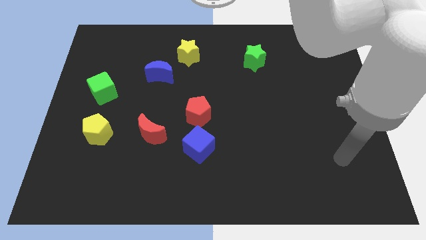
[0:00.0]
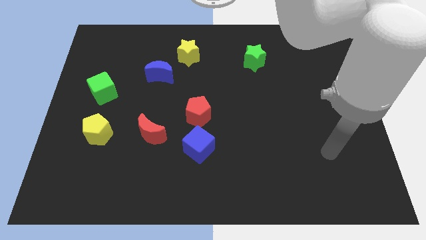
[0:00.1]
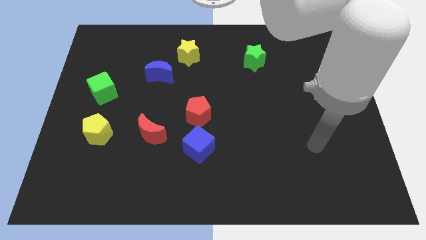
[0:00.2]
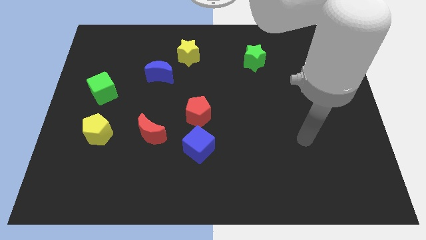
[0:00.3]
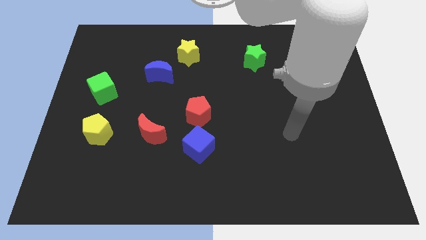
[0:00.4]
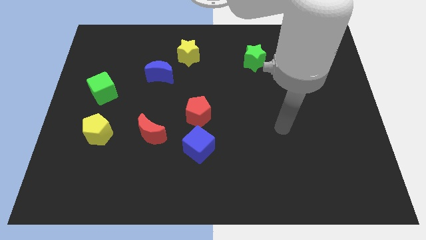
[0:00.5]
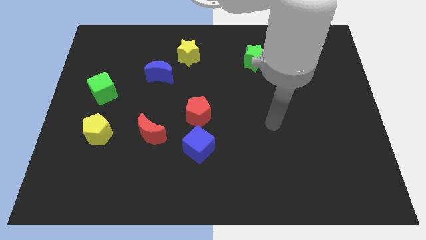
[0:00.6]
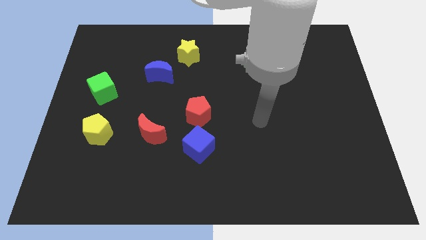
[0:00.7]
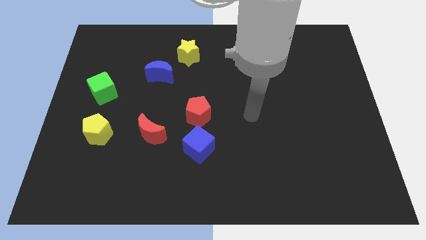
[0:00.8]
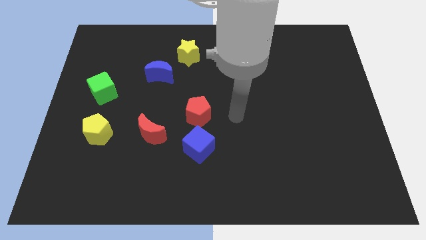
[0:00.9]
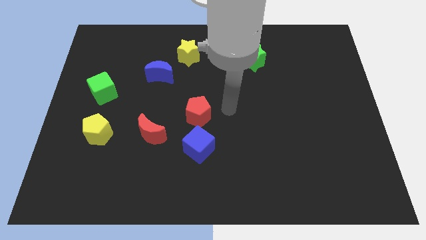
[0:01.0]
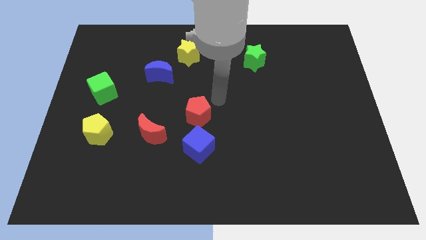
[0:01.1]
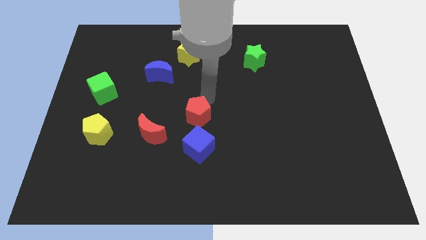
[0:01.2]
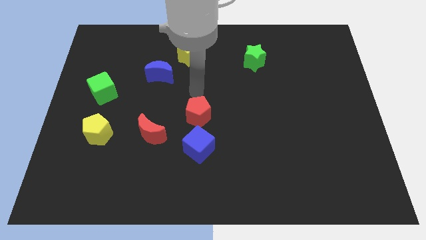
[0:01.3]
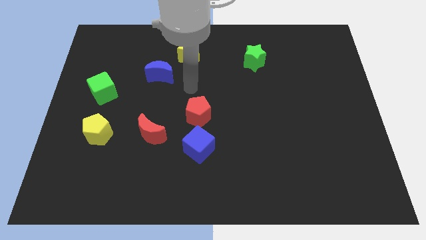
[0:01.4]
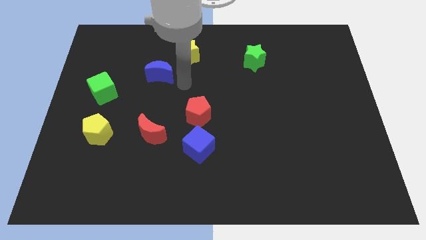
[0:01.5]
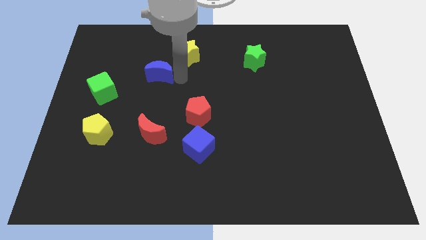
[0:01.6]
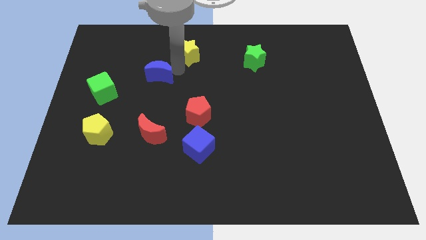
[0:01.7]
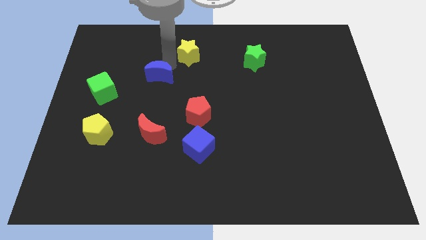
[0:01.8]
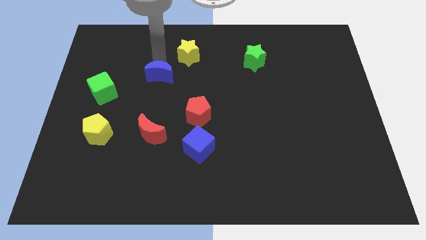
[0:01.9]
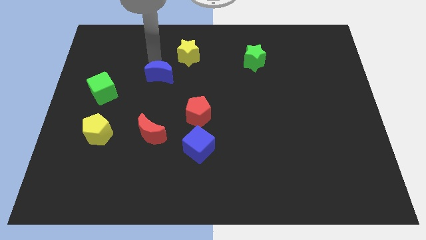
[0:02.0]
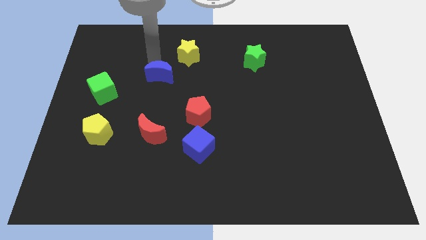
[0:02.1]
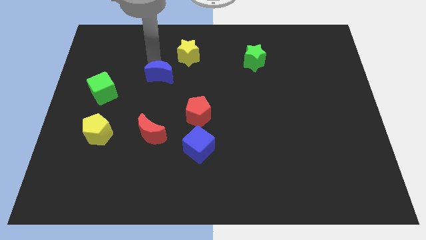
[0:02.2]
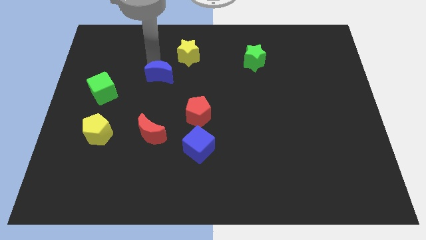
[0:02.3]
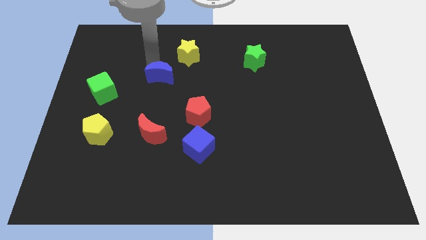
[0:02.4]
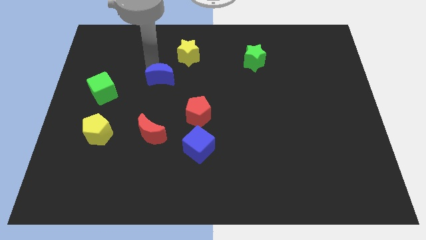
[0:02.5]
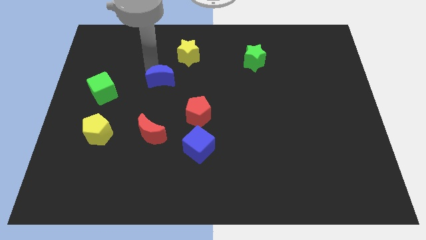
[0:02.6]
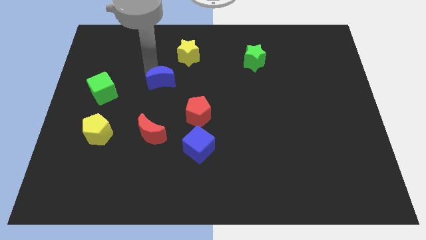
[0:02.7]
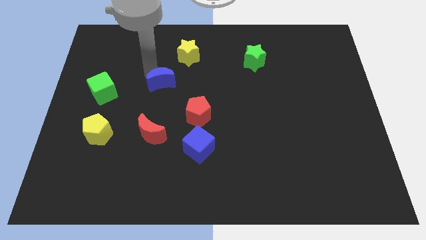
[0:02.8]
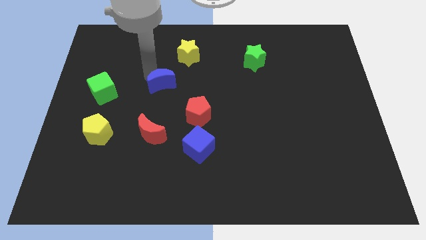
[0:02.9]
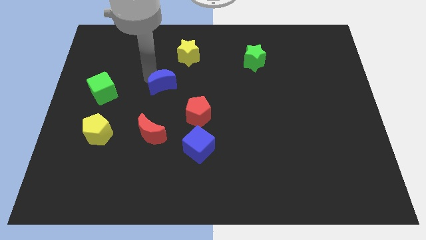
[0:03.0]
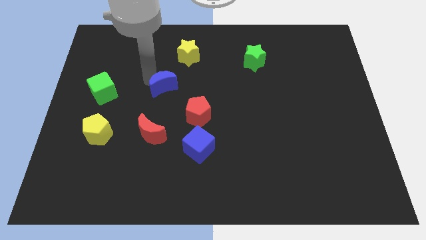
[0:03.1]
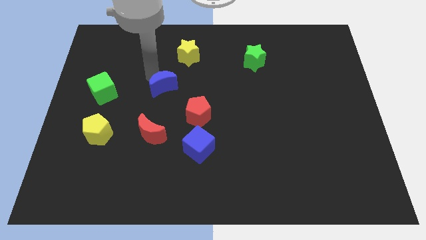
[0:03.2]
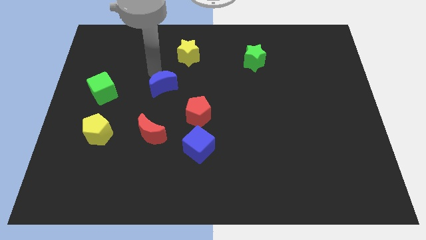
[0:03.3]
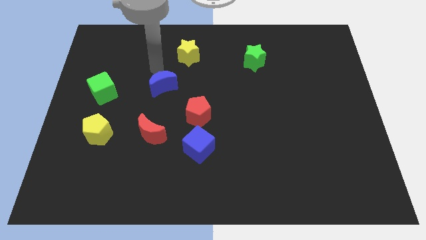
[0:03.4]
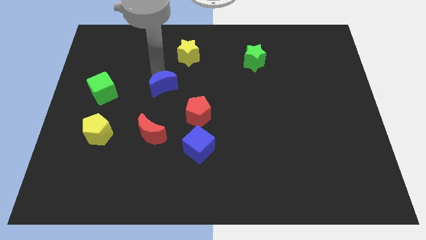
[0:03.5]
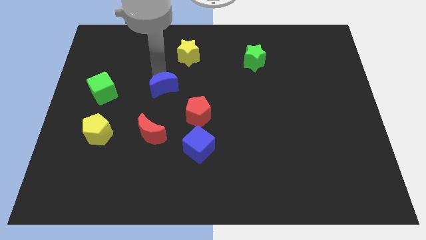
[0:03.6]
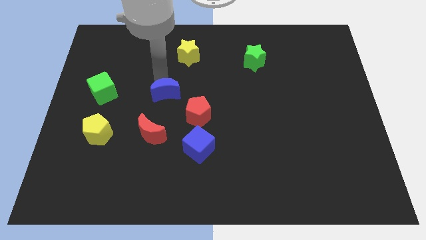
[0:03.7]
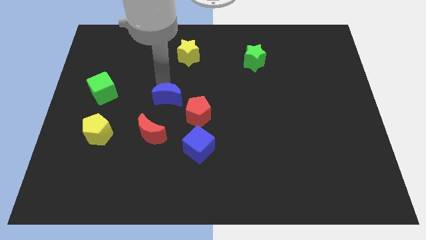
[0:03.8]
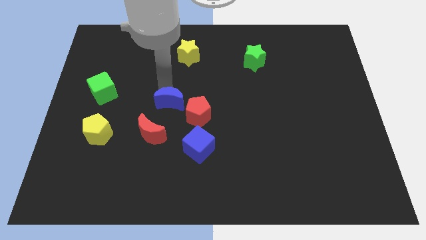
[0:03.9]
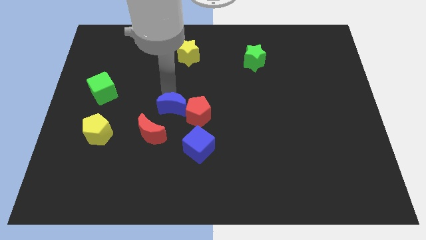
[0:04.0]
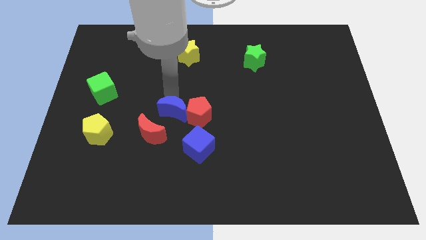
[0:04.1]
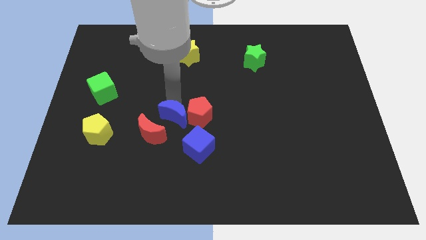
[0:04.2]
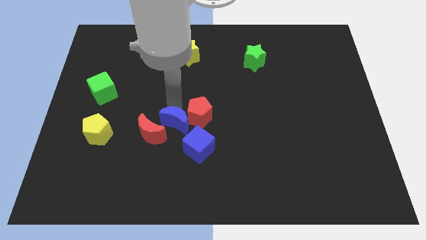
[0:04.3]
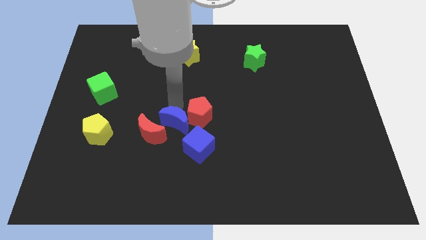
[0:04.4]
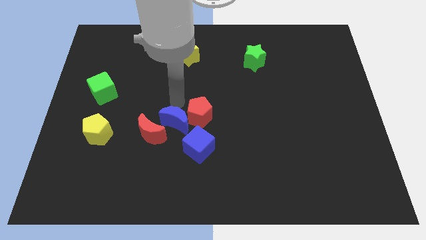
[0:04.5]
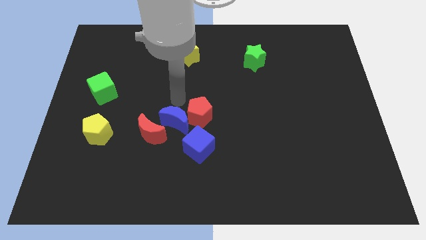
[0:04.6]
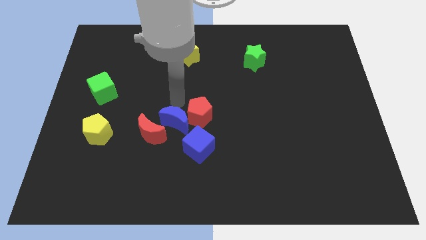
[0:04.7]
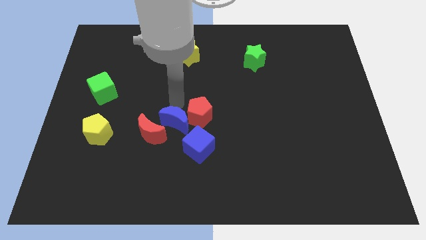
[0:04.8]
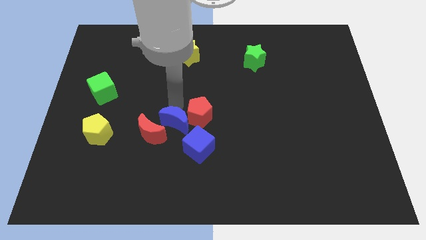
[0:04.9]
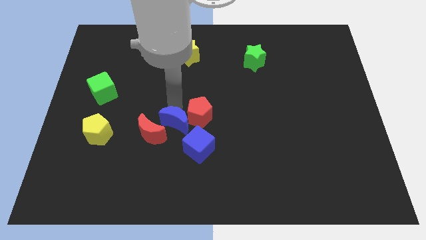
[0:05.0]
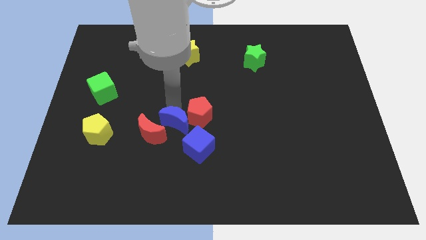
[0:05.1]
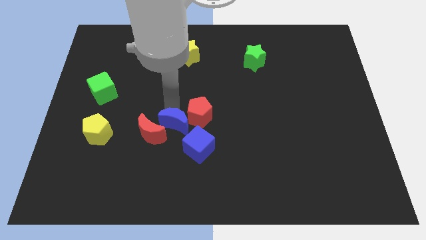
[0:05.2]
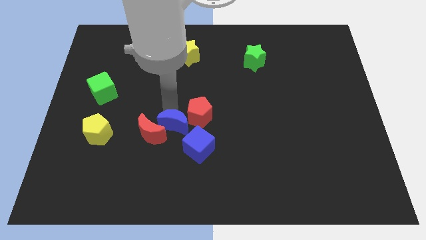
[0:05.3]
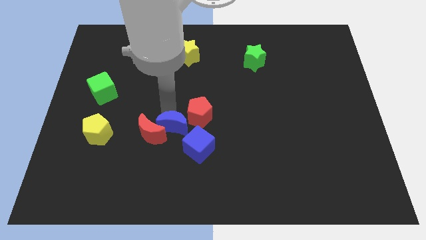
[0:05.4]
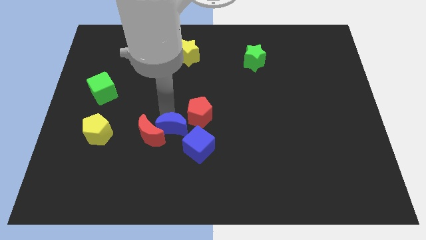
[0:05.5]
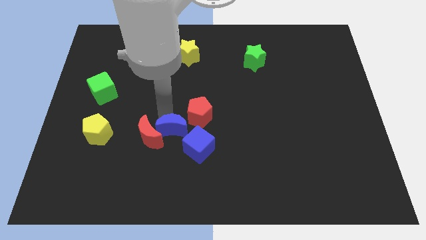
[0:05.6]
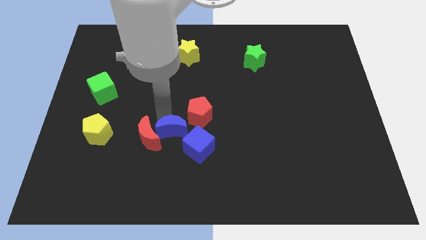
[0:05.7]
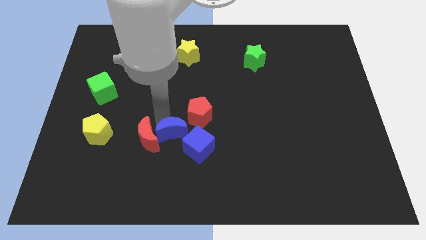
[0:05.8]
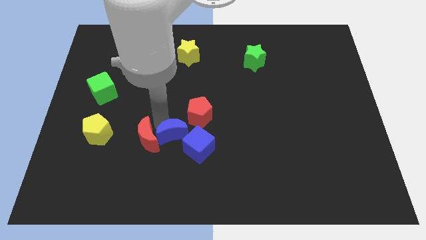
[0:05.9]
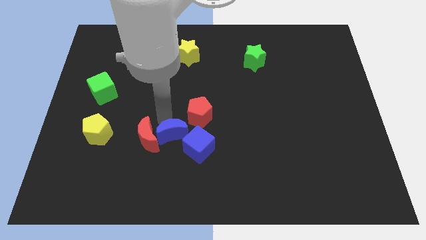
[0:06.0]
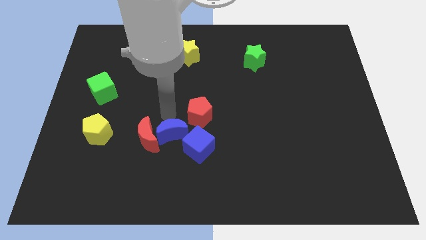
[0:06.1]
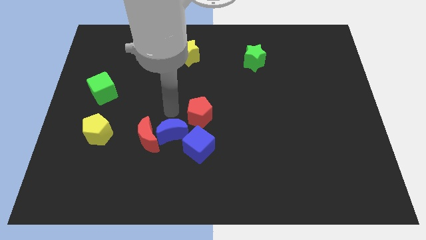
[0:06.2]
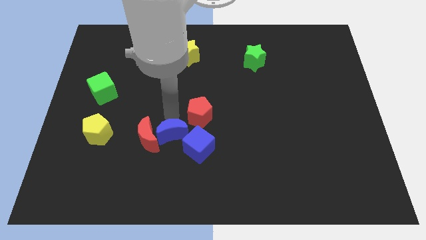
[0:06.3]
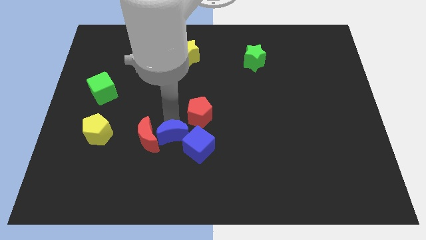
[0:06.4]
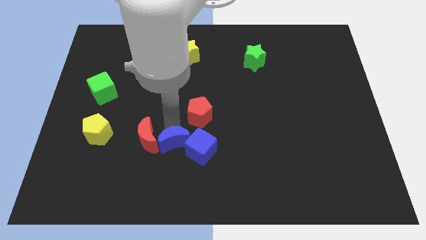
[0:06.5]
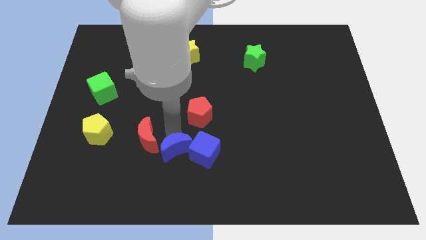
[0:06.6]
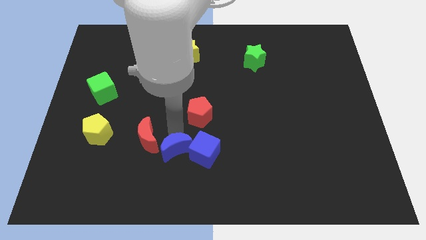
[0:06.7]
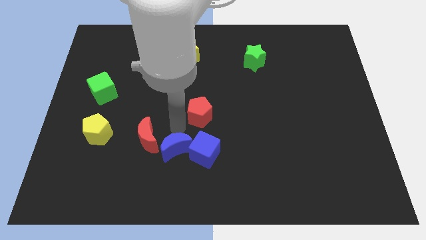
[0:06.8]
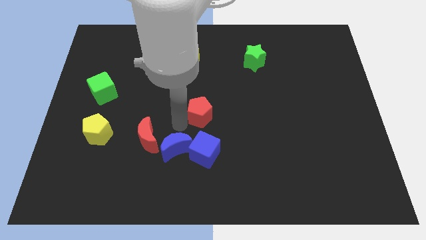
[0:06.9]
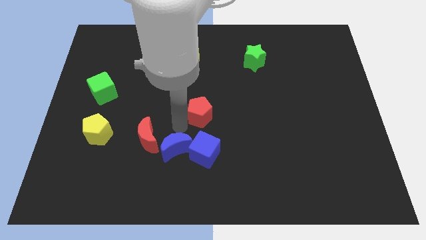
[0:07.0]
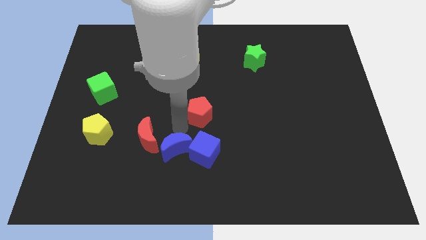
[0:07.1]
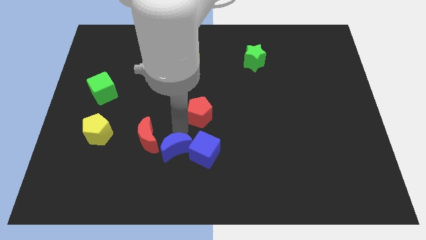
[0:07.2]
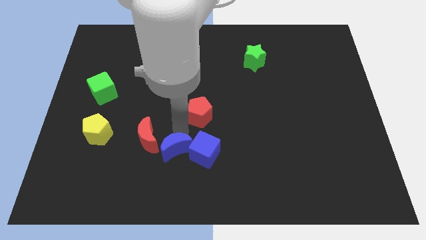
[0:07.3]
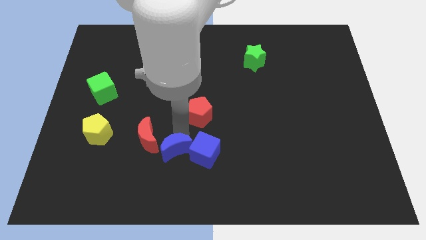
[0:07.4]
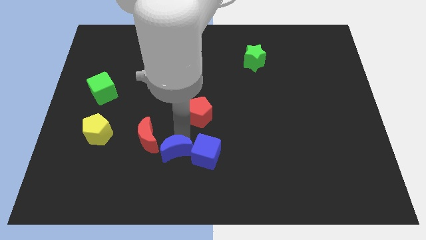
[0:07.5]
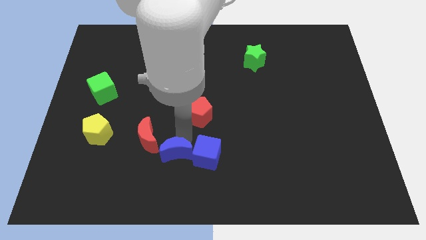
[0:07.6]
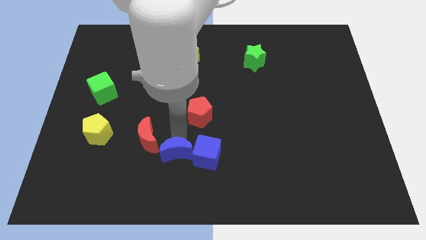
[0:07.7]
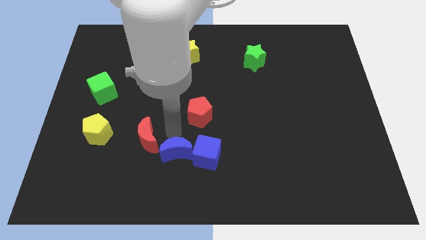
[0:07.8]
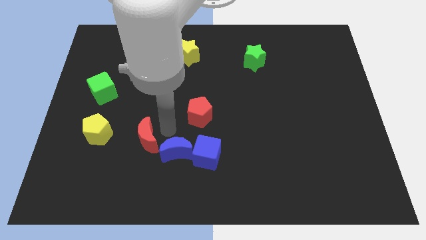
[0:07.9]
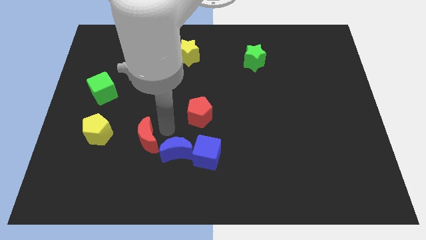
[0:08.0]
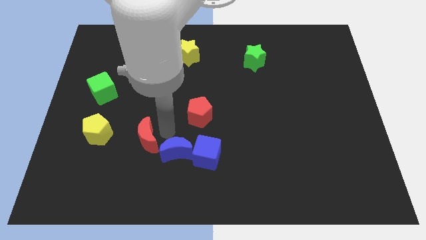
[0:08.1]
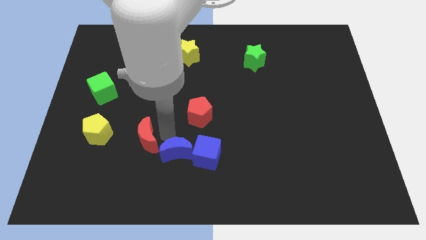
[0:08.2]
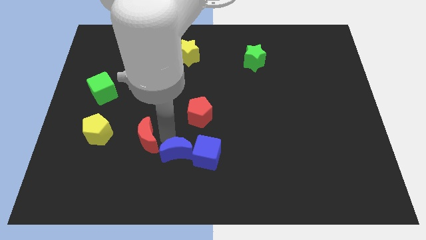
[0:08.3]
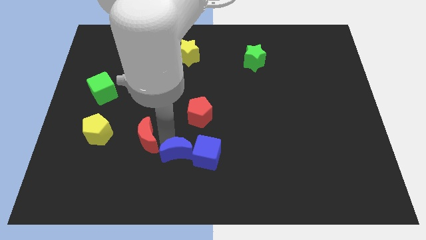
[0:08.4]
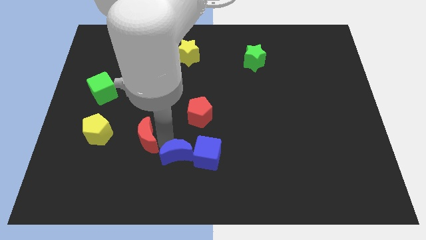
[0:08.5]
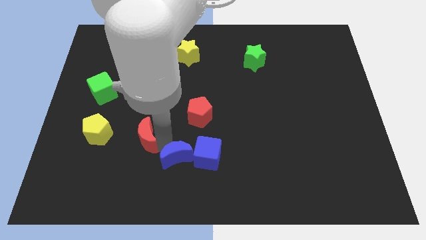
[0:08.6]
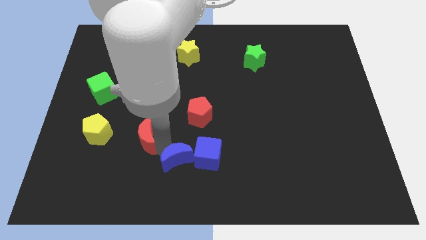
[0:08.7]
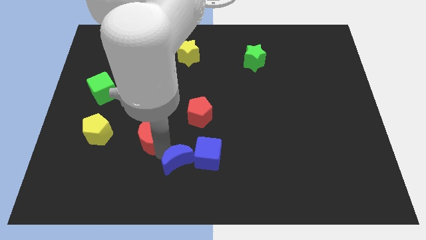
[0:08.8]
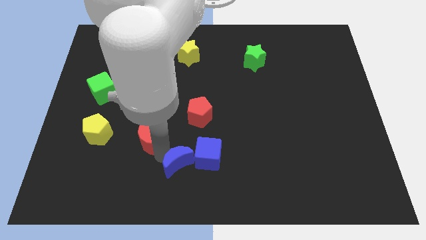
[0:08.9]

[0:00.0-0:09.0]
push the blue moon to the bottom side
